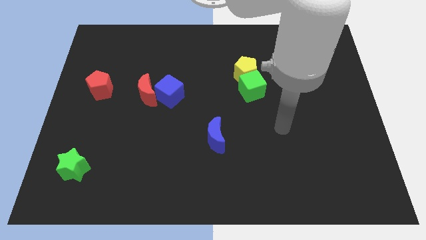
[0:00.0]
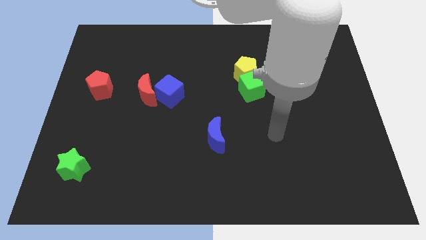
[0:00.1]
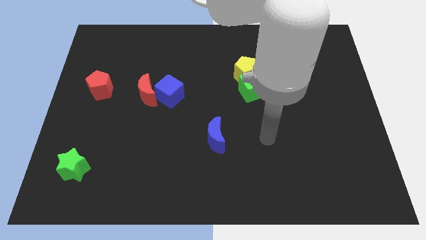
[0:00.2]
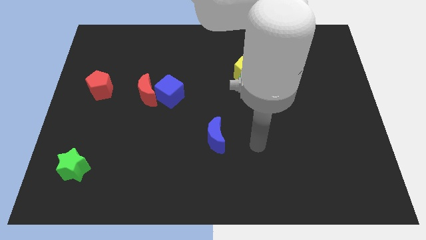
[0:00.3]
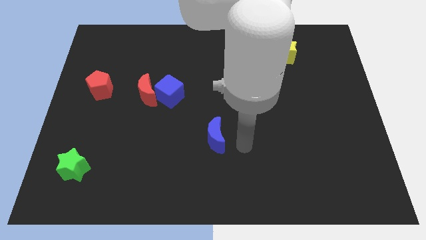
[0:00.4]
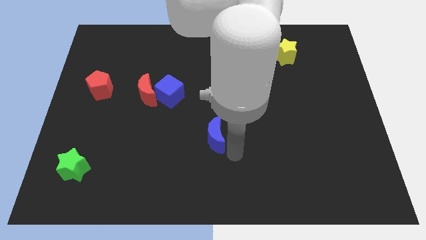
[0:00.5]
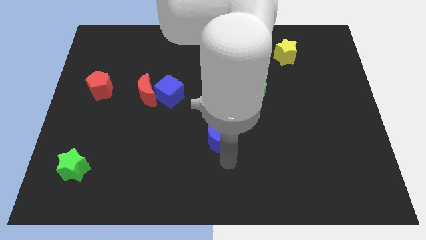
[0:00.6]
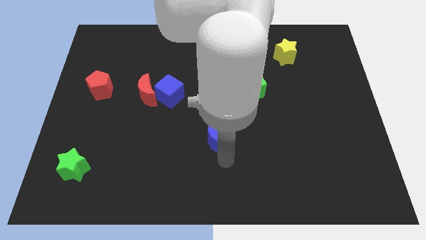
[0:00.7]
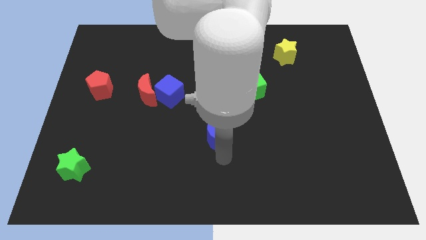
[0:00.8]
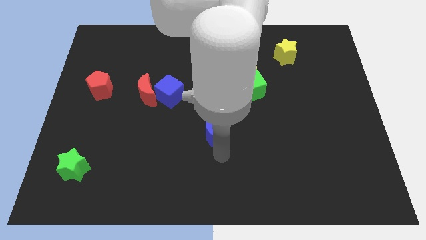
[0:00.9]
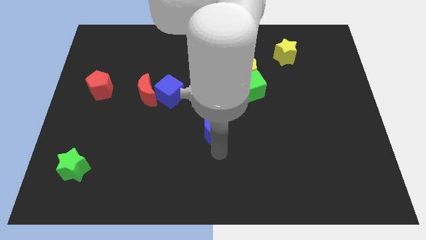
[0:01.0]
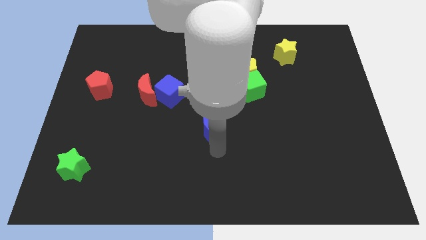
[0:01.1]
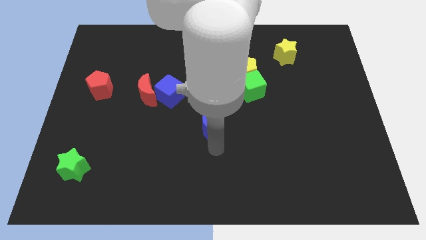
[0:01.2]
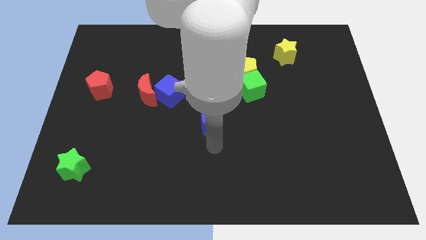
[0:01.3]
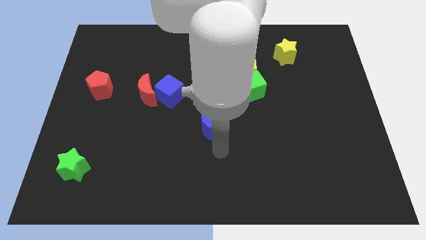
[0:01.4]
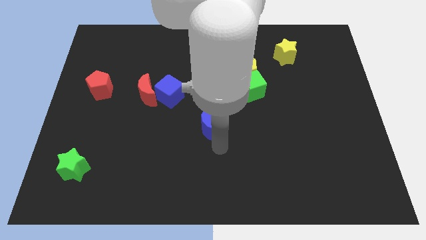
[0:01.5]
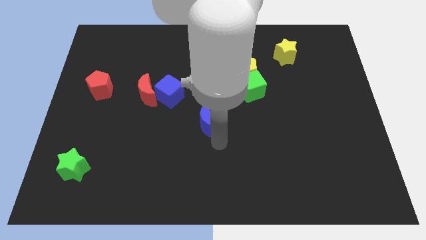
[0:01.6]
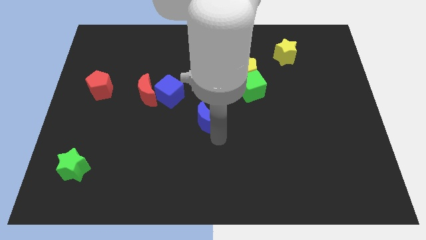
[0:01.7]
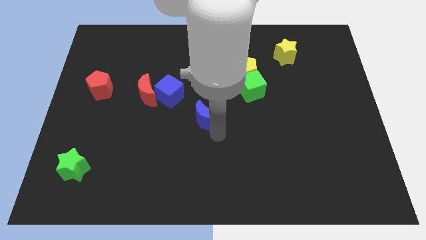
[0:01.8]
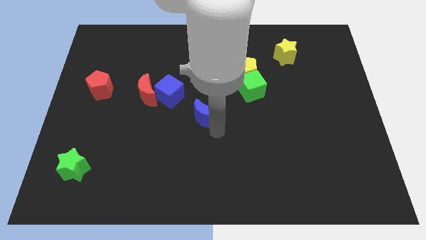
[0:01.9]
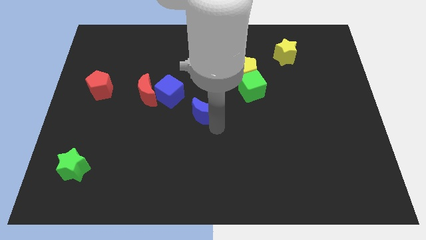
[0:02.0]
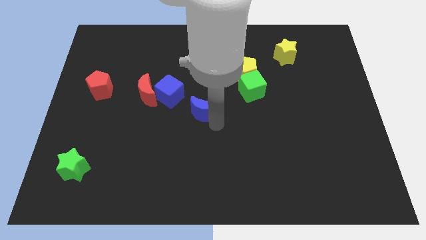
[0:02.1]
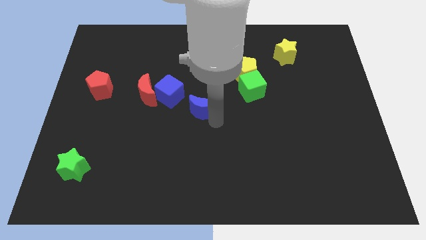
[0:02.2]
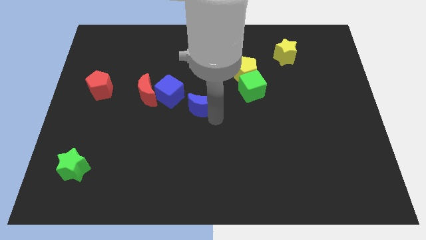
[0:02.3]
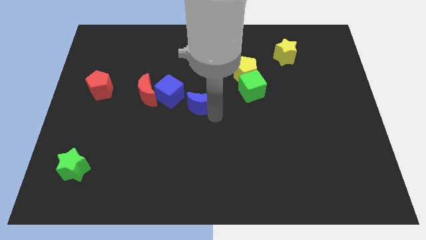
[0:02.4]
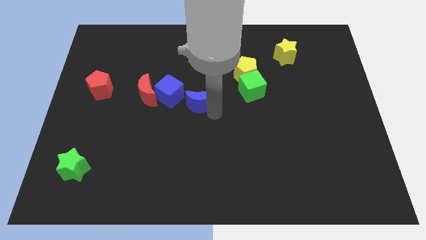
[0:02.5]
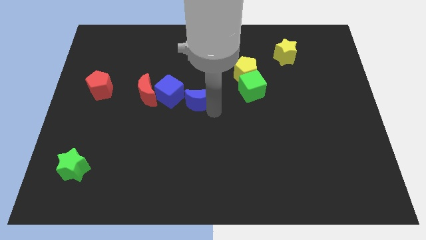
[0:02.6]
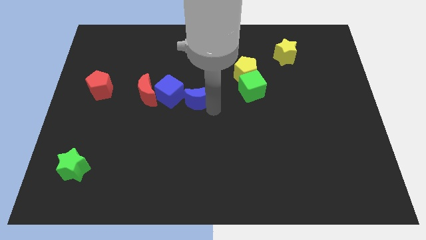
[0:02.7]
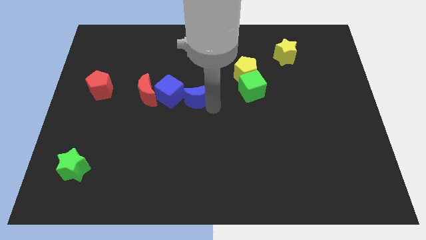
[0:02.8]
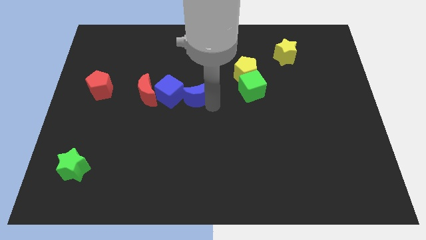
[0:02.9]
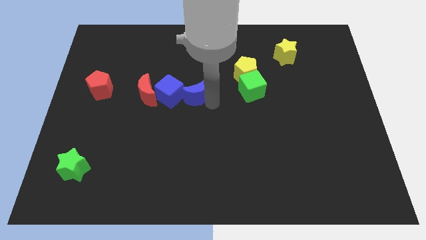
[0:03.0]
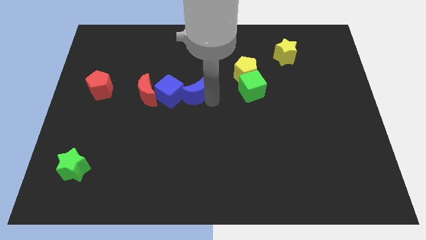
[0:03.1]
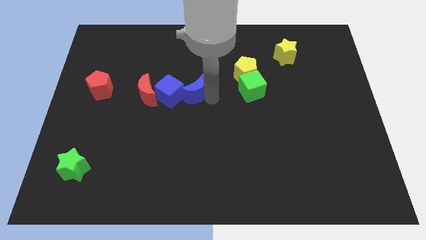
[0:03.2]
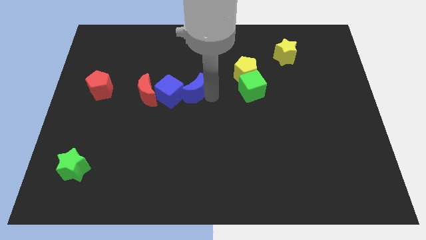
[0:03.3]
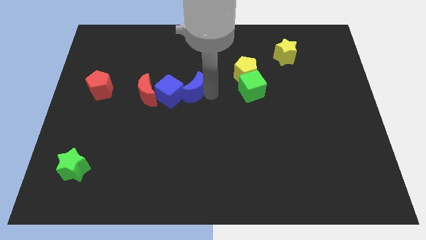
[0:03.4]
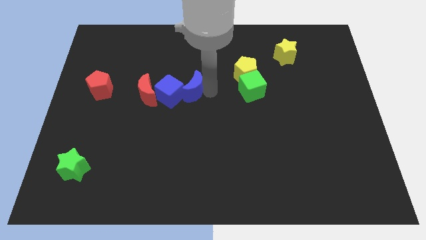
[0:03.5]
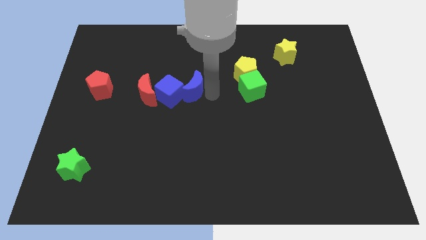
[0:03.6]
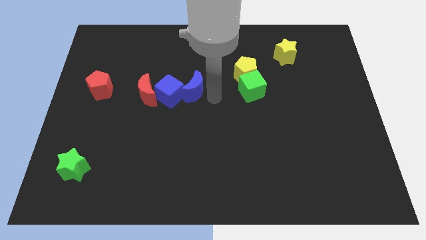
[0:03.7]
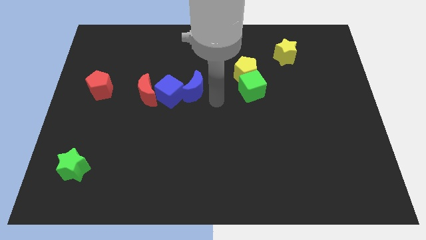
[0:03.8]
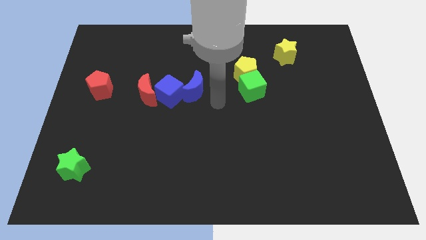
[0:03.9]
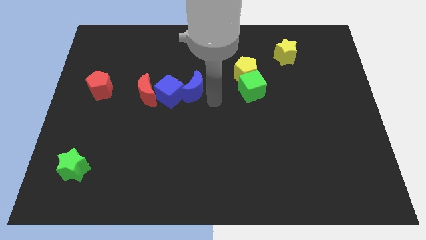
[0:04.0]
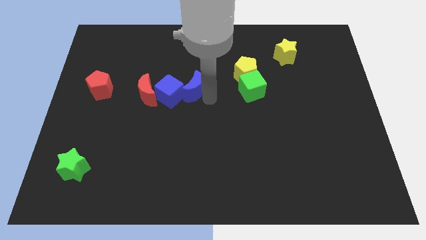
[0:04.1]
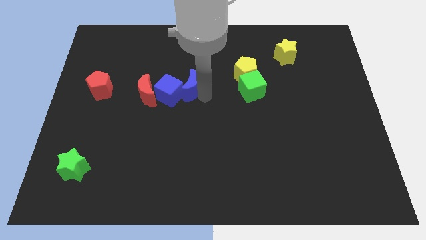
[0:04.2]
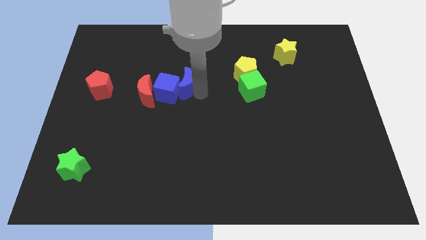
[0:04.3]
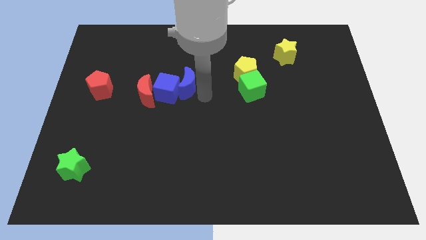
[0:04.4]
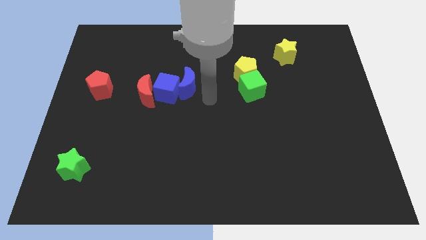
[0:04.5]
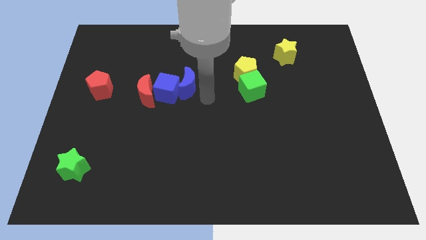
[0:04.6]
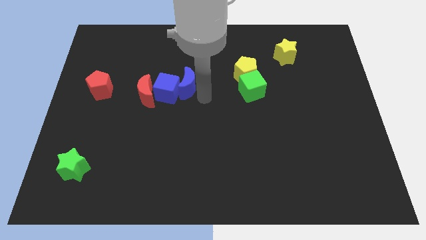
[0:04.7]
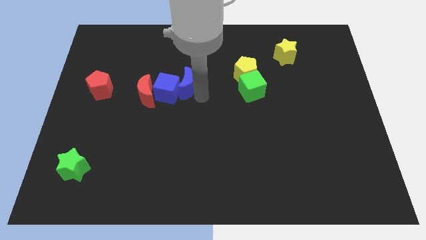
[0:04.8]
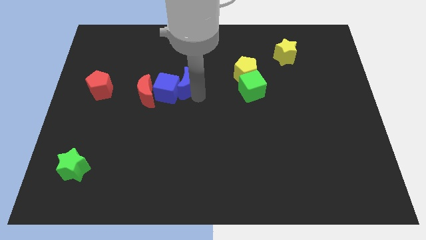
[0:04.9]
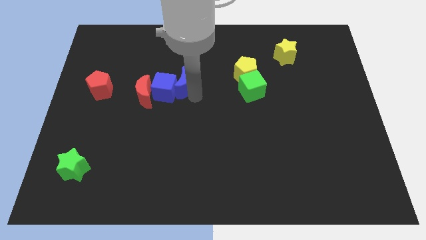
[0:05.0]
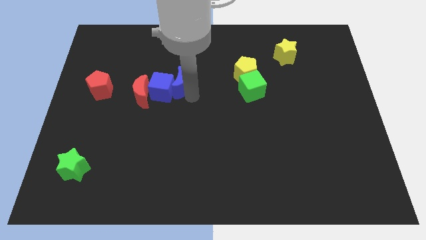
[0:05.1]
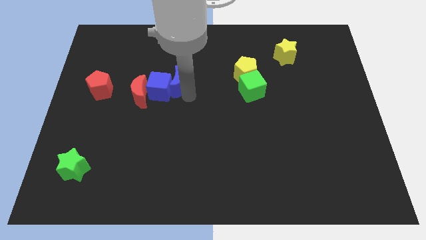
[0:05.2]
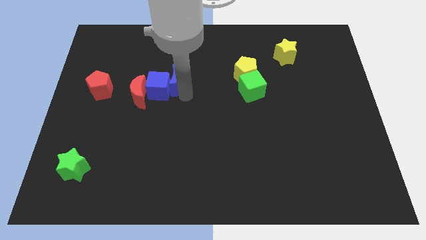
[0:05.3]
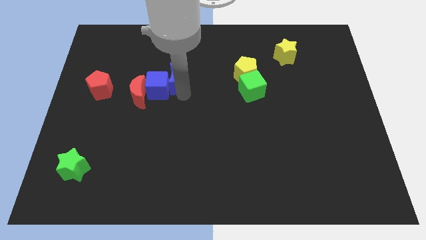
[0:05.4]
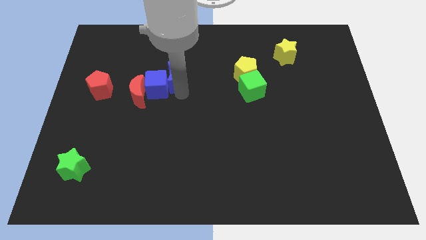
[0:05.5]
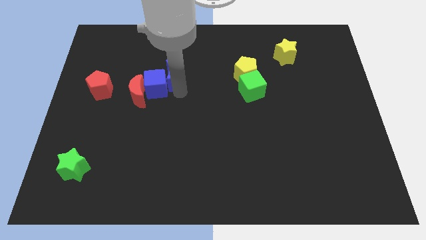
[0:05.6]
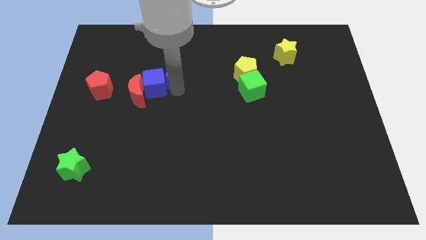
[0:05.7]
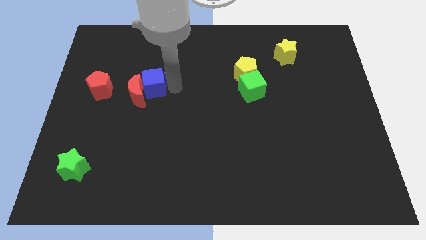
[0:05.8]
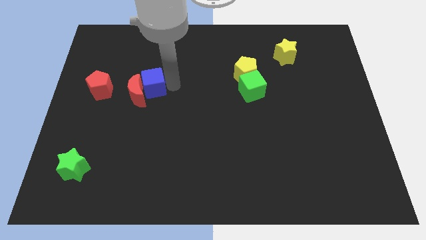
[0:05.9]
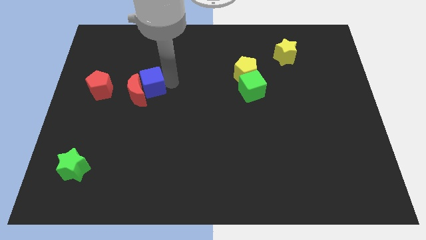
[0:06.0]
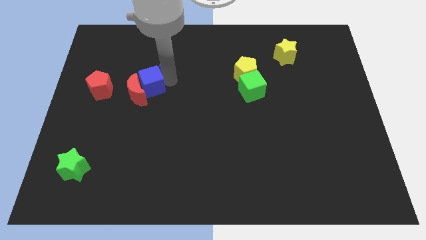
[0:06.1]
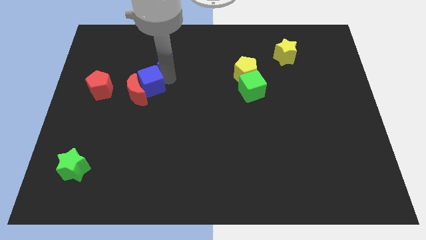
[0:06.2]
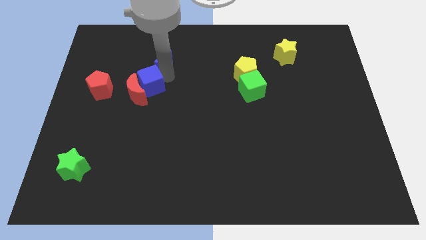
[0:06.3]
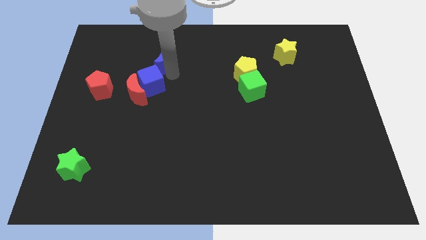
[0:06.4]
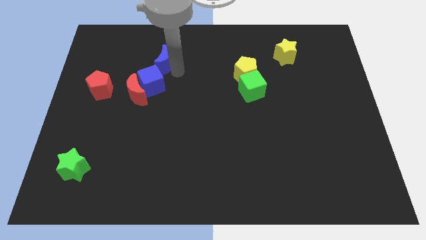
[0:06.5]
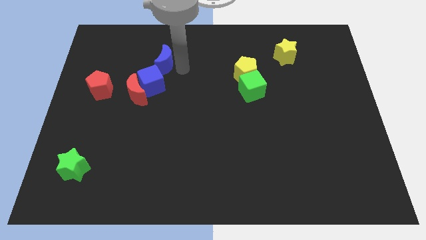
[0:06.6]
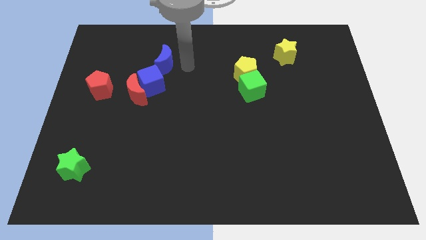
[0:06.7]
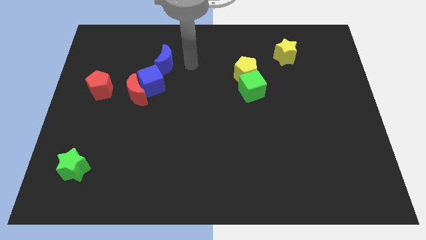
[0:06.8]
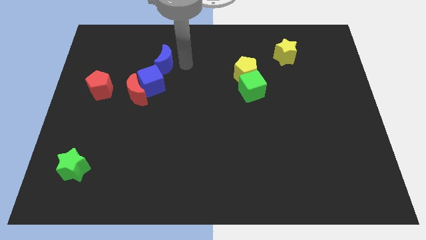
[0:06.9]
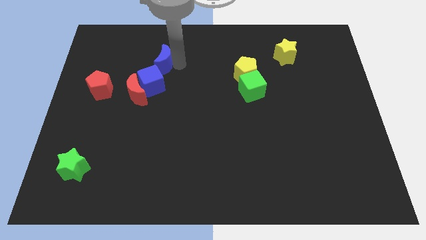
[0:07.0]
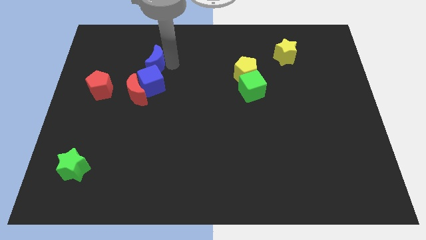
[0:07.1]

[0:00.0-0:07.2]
slide the blue moon above the red moon

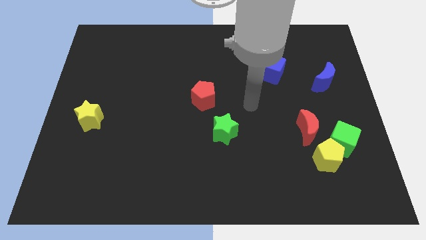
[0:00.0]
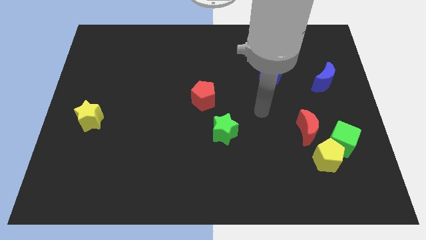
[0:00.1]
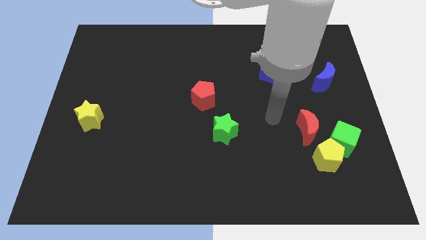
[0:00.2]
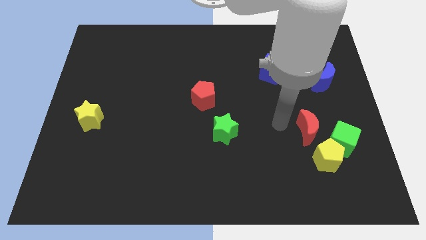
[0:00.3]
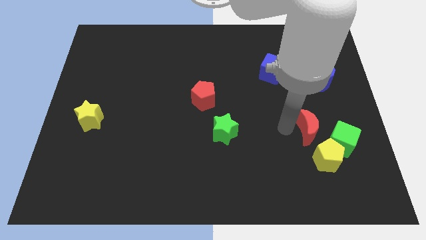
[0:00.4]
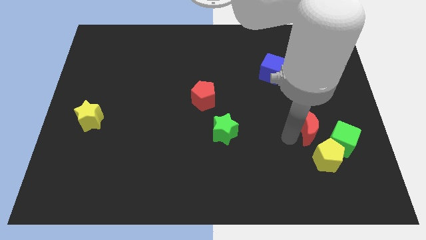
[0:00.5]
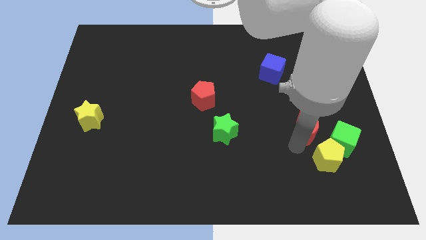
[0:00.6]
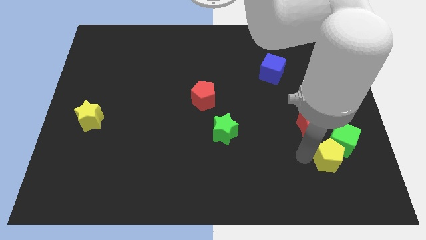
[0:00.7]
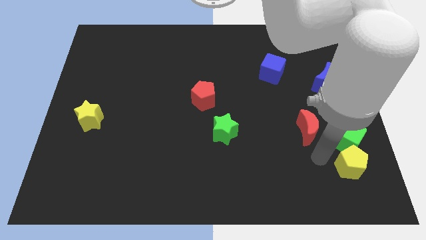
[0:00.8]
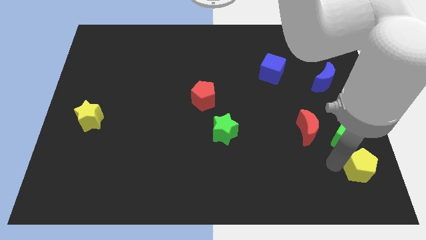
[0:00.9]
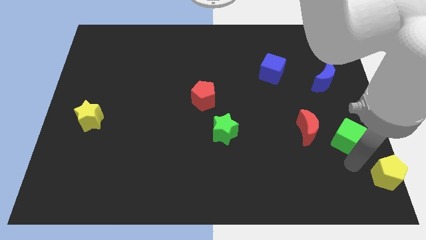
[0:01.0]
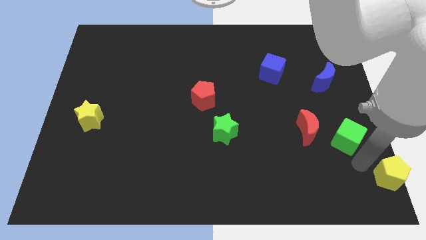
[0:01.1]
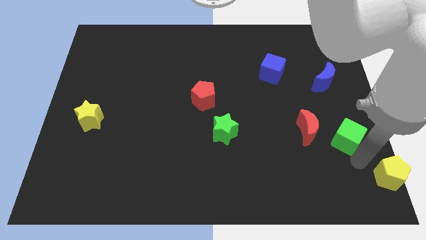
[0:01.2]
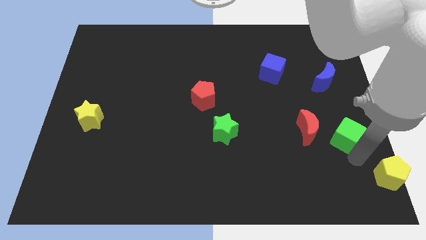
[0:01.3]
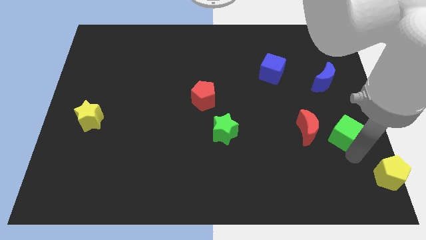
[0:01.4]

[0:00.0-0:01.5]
push the green cube to the bottom side of the blue moon
